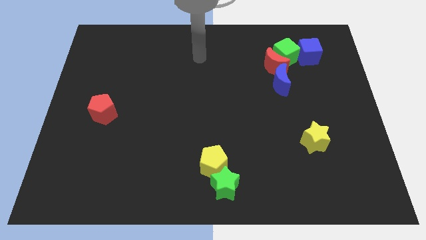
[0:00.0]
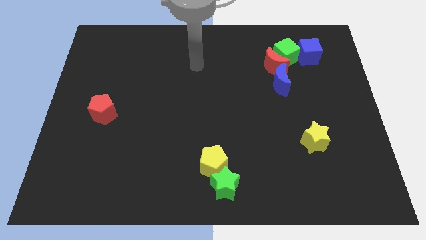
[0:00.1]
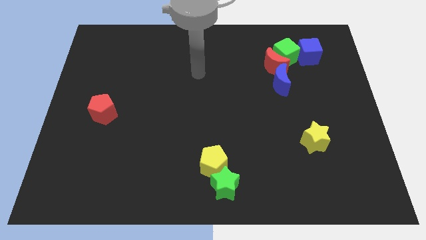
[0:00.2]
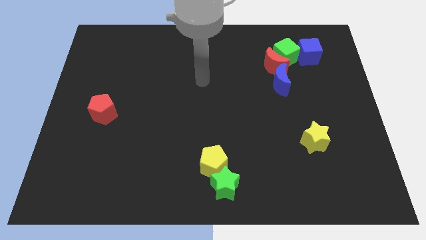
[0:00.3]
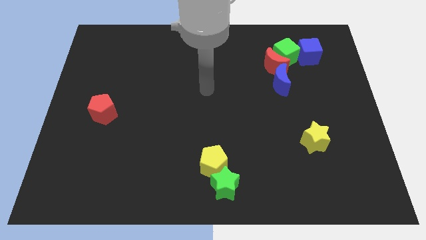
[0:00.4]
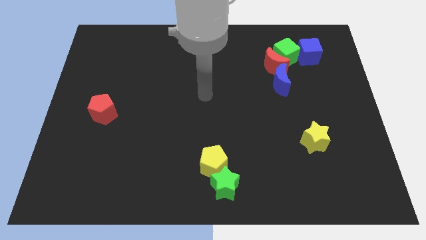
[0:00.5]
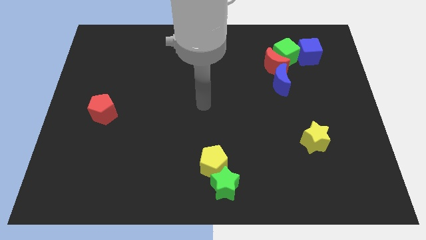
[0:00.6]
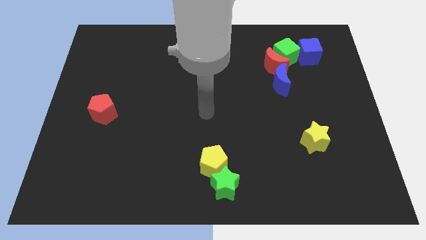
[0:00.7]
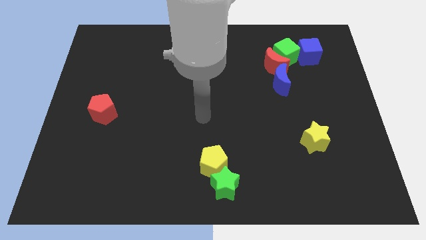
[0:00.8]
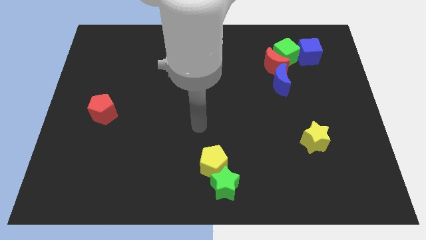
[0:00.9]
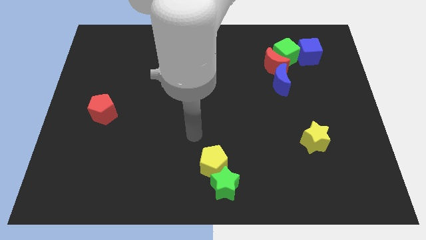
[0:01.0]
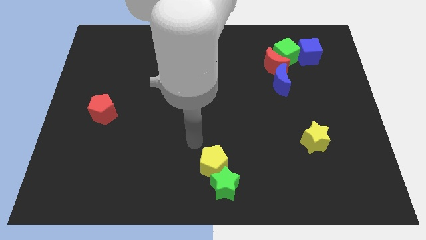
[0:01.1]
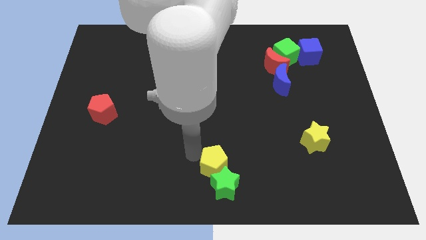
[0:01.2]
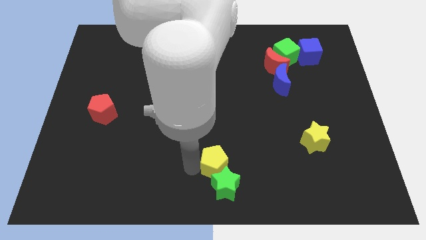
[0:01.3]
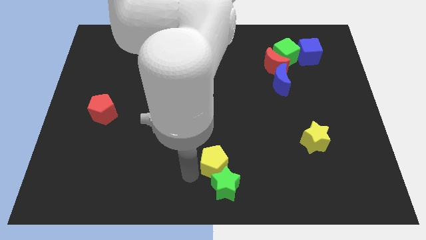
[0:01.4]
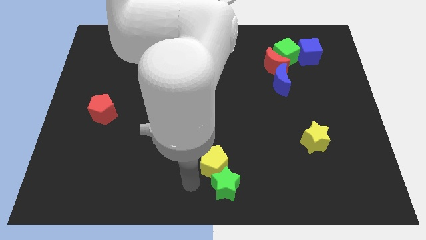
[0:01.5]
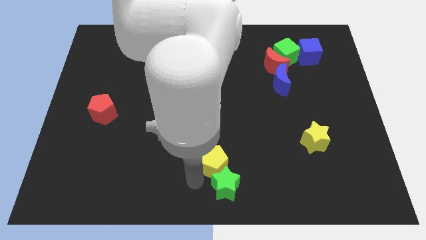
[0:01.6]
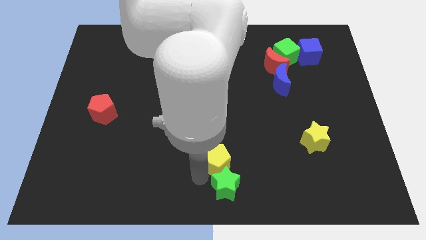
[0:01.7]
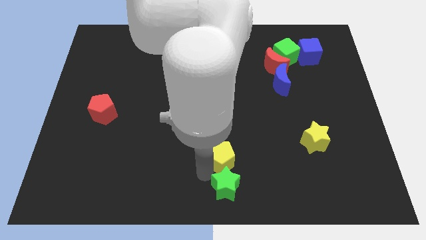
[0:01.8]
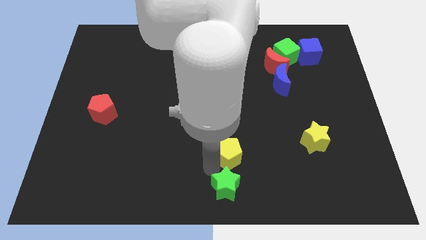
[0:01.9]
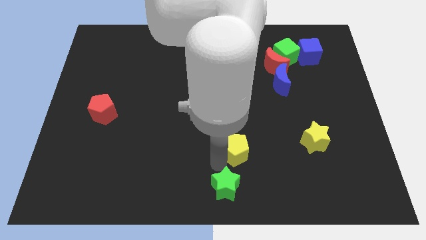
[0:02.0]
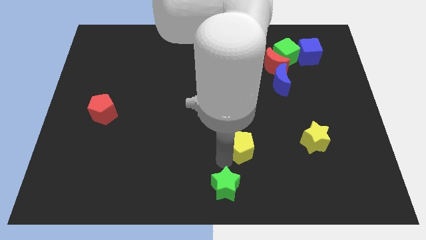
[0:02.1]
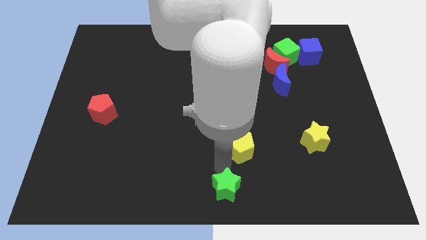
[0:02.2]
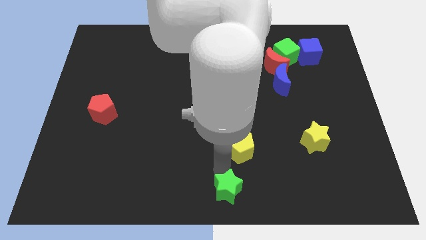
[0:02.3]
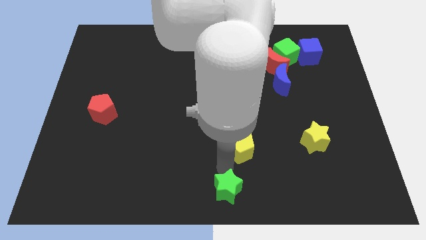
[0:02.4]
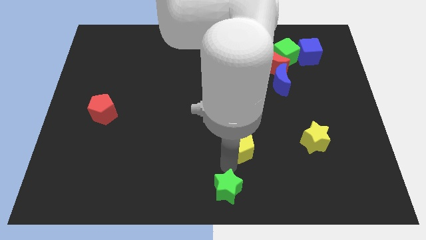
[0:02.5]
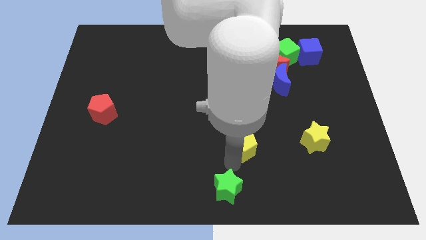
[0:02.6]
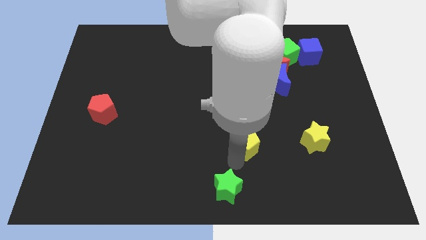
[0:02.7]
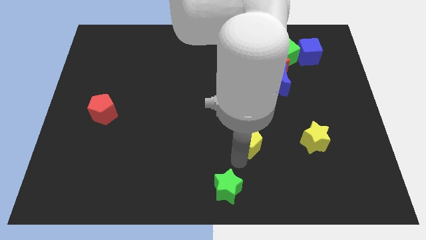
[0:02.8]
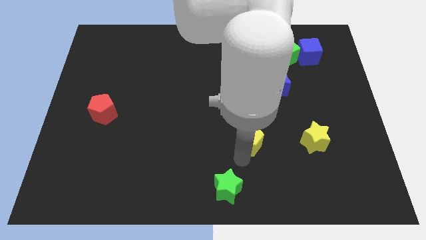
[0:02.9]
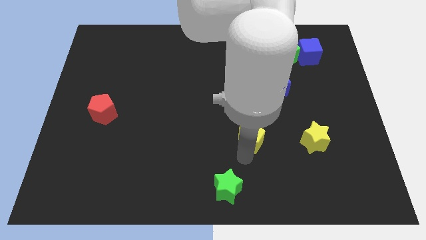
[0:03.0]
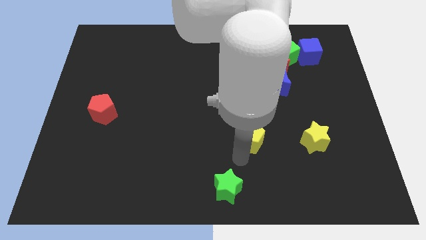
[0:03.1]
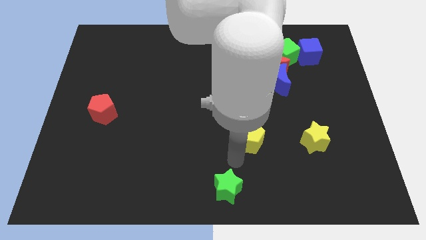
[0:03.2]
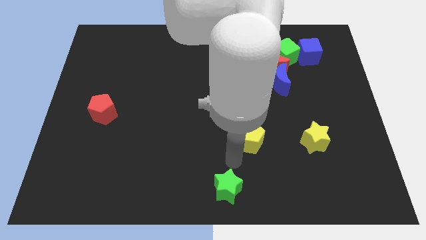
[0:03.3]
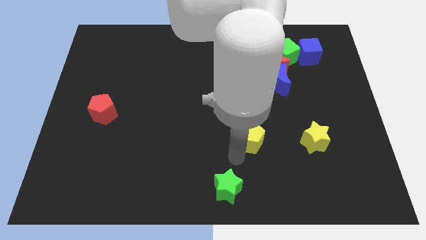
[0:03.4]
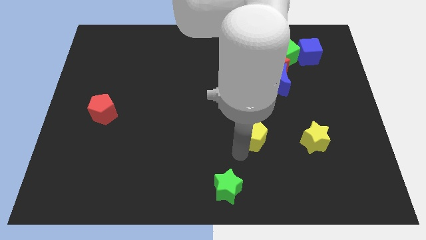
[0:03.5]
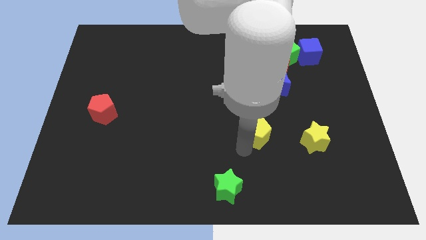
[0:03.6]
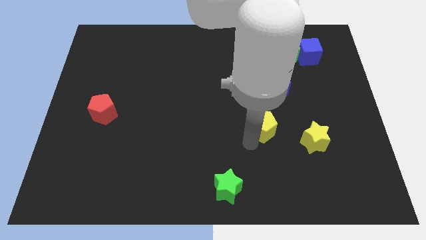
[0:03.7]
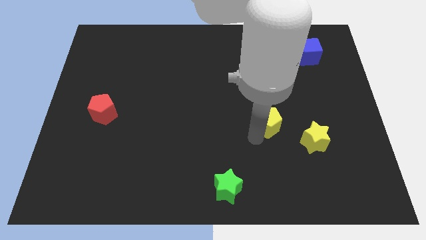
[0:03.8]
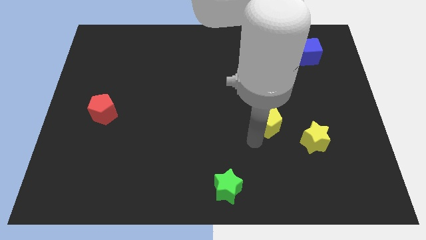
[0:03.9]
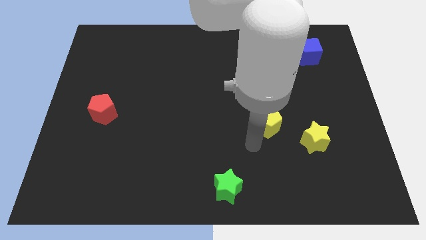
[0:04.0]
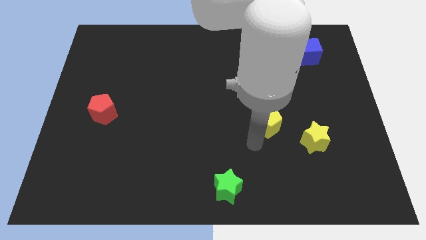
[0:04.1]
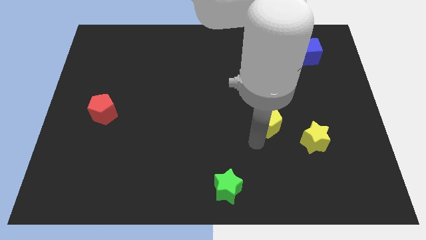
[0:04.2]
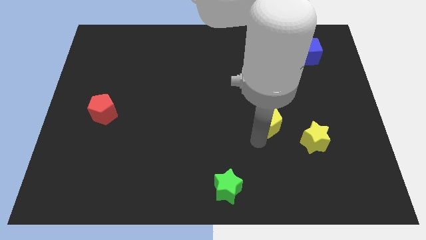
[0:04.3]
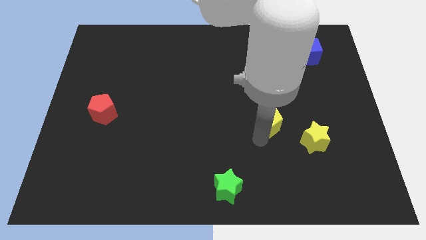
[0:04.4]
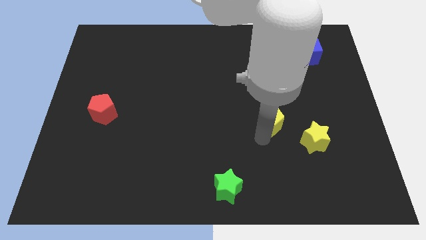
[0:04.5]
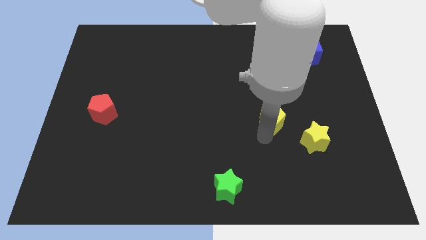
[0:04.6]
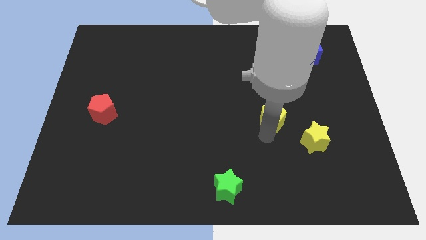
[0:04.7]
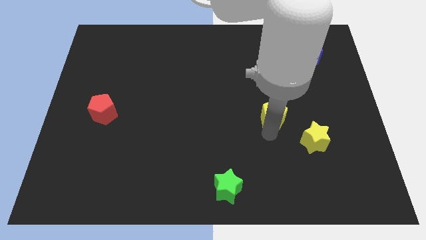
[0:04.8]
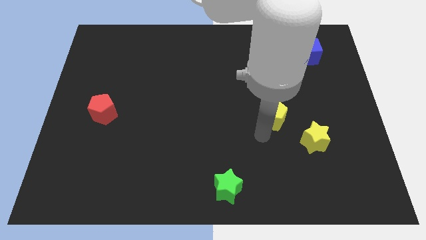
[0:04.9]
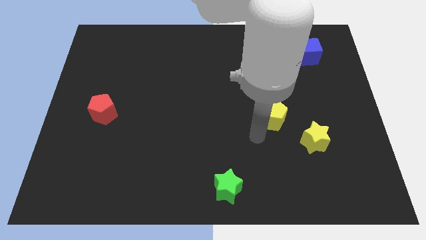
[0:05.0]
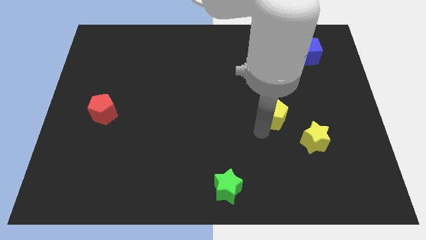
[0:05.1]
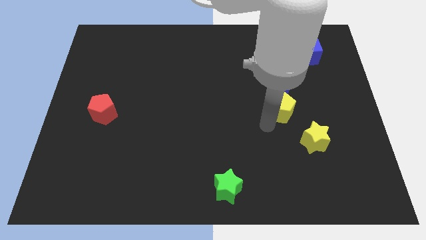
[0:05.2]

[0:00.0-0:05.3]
push the yellow pentagon upwards and then to the right

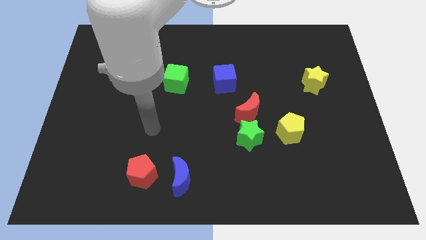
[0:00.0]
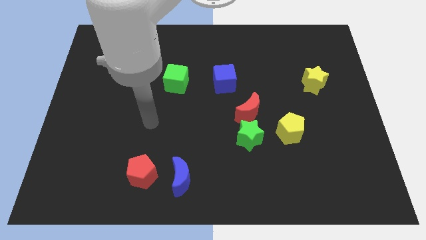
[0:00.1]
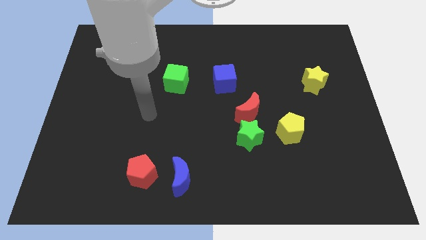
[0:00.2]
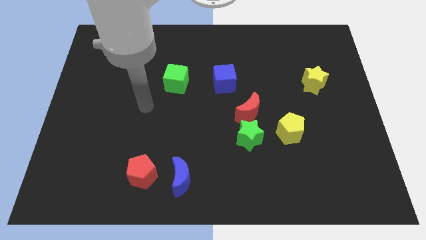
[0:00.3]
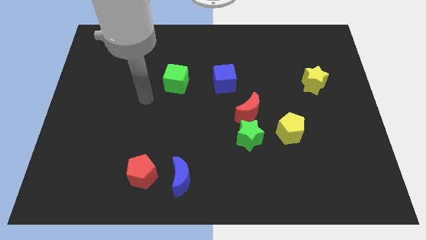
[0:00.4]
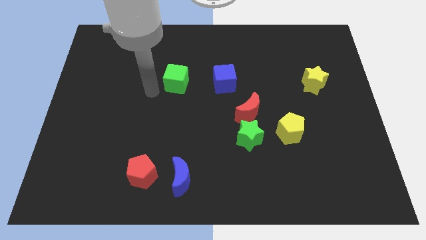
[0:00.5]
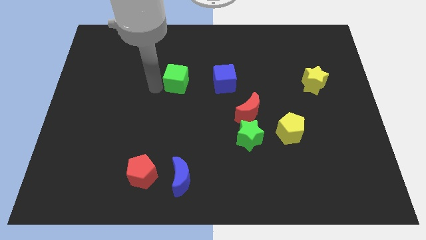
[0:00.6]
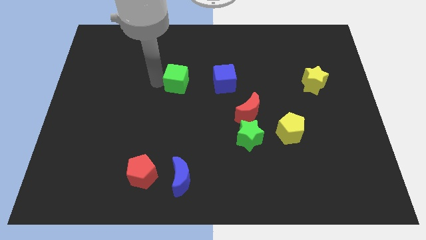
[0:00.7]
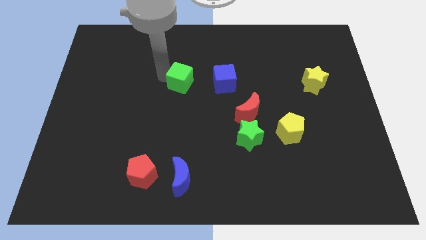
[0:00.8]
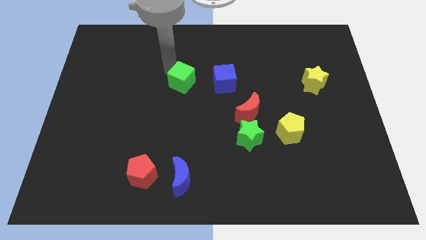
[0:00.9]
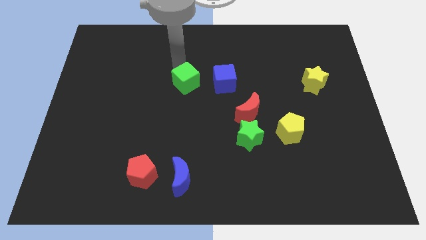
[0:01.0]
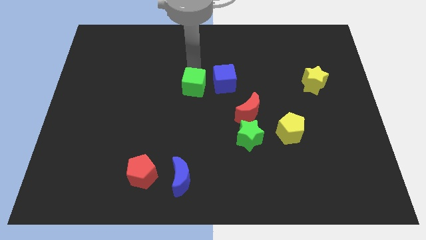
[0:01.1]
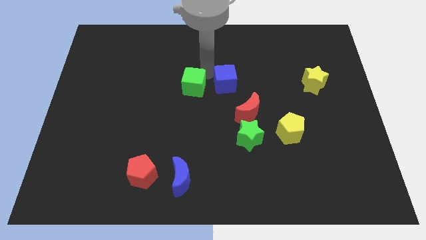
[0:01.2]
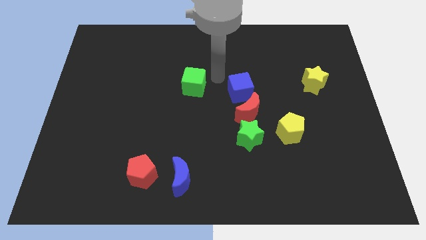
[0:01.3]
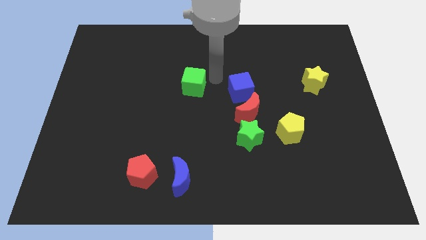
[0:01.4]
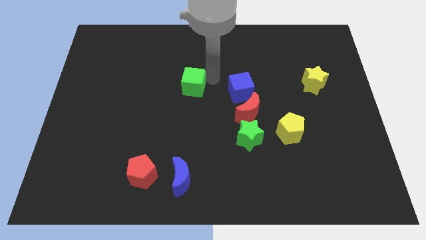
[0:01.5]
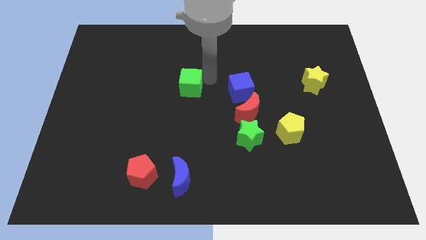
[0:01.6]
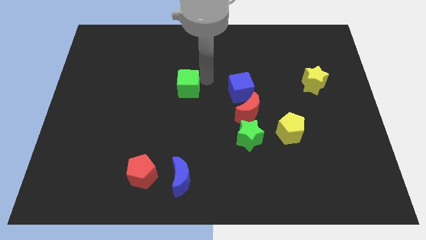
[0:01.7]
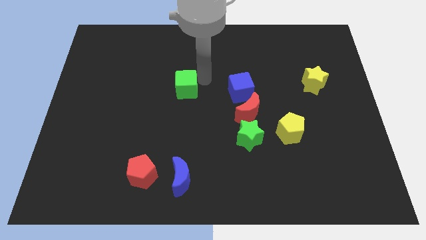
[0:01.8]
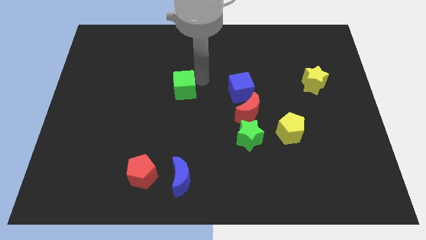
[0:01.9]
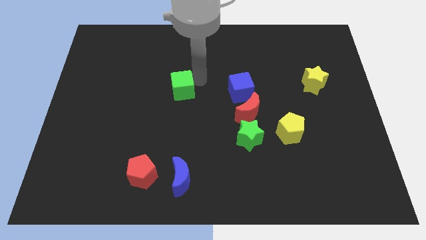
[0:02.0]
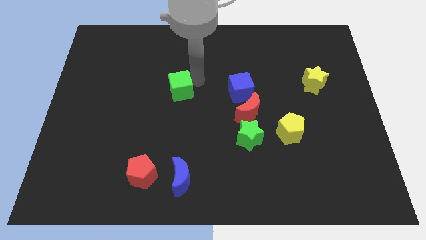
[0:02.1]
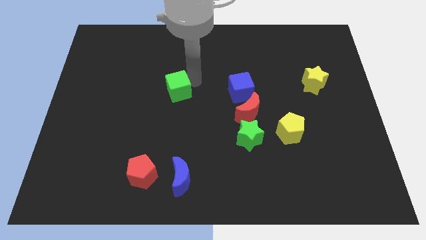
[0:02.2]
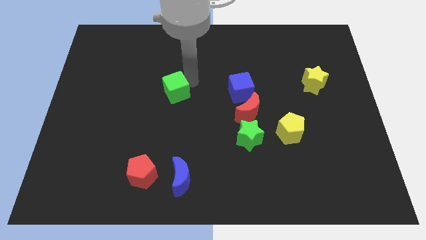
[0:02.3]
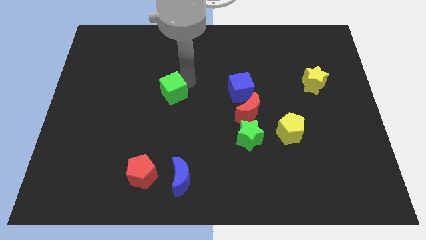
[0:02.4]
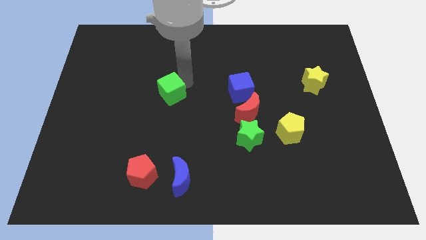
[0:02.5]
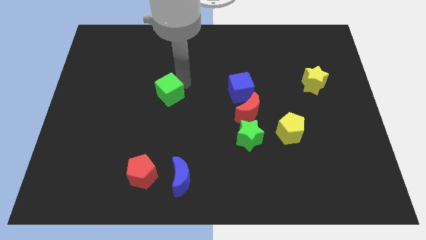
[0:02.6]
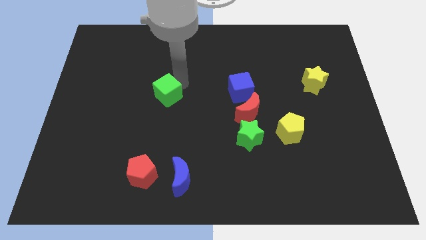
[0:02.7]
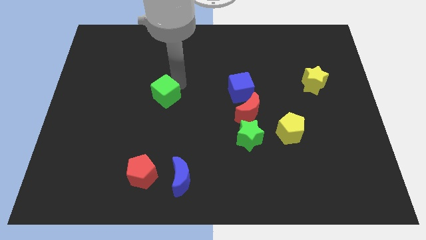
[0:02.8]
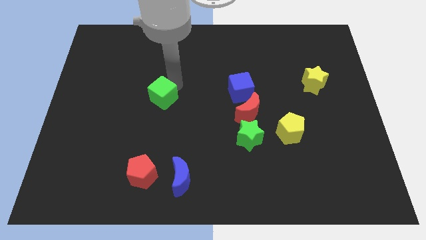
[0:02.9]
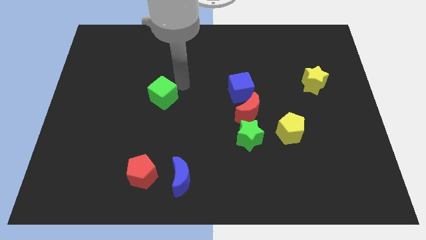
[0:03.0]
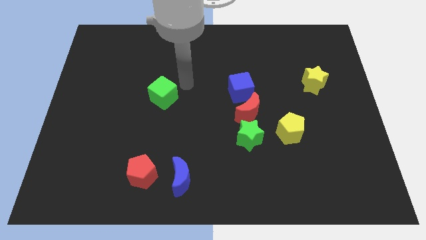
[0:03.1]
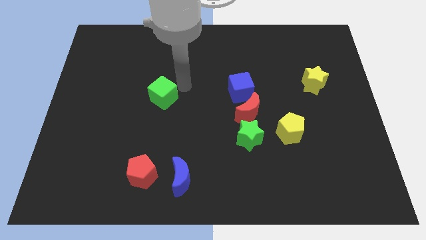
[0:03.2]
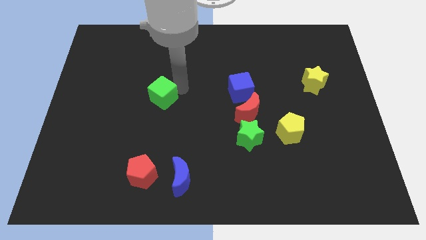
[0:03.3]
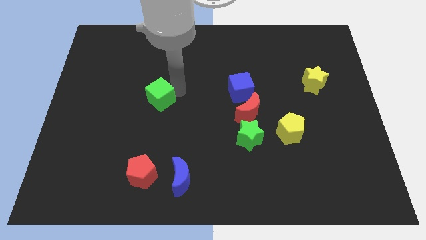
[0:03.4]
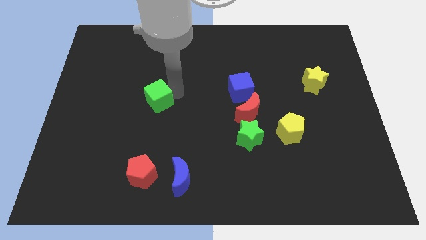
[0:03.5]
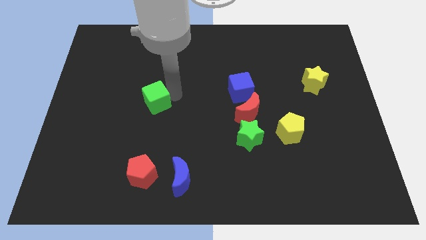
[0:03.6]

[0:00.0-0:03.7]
move the green cube diagonally down and left a little bit
